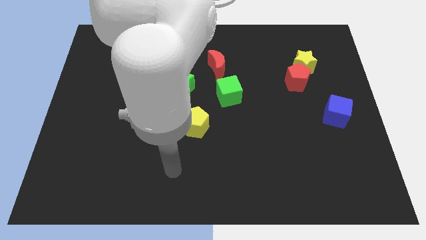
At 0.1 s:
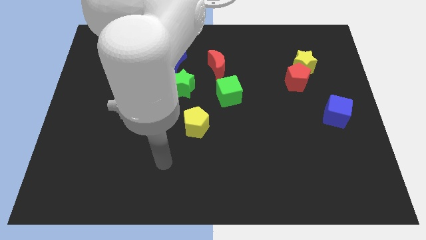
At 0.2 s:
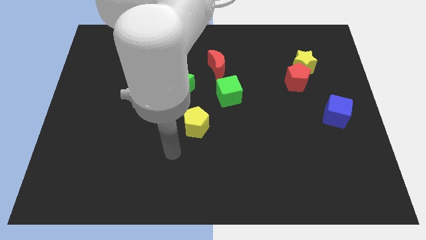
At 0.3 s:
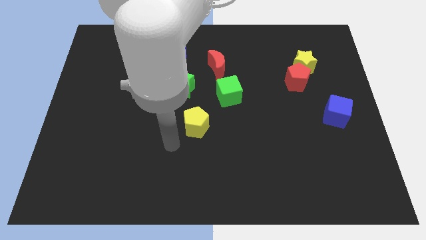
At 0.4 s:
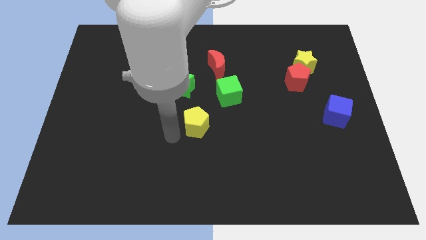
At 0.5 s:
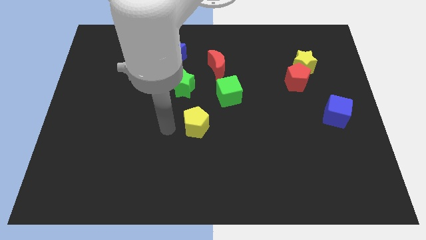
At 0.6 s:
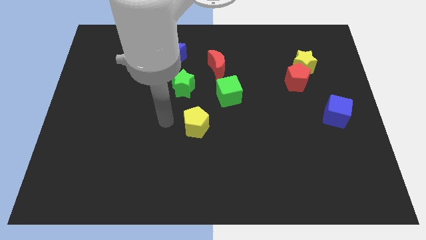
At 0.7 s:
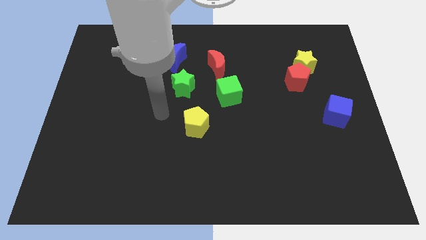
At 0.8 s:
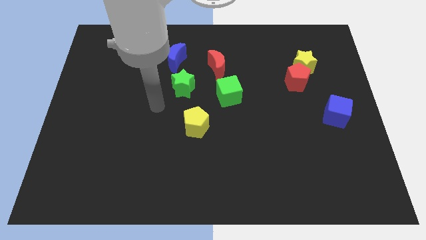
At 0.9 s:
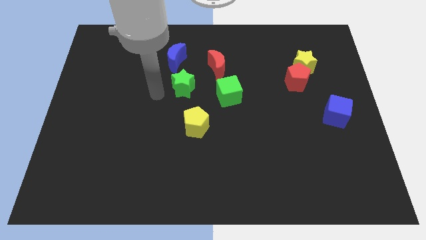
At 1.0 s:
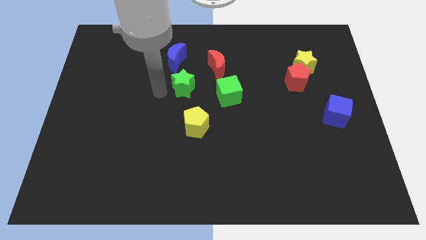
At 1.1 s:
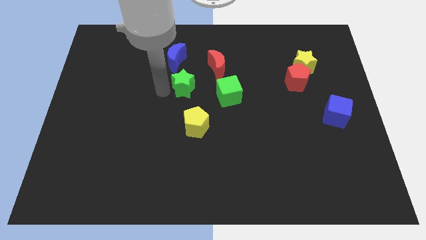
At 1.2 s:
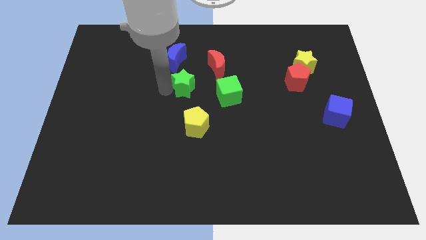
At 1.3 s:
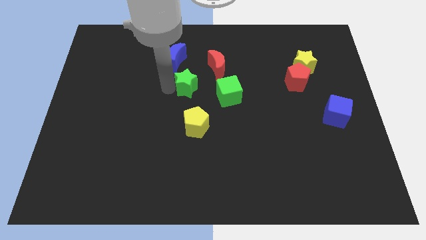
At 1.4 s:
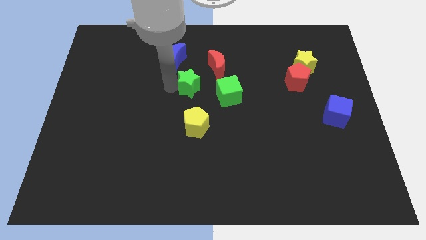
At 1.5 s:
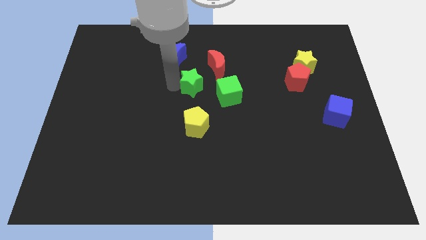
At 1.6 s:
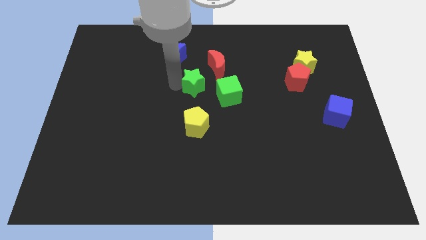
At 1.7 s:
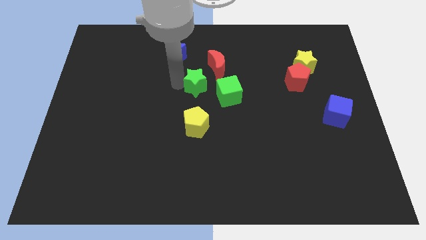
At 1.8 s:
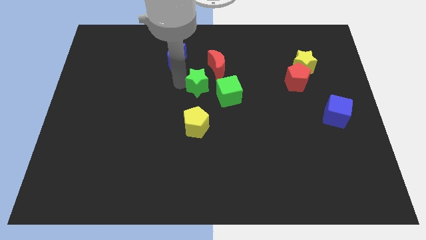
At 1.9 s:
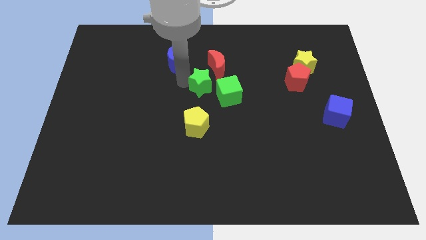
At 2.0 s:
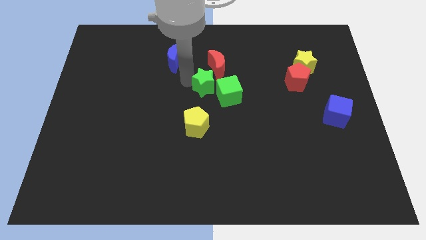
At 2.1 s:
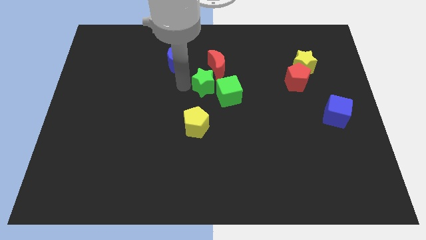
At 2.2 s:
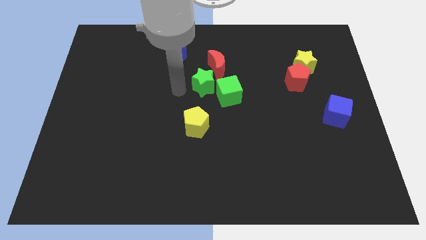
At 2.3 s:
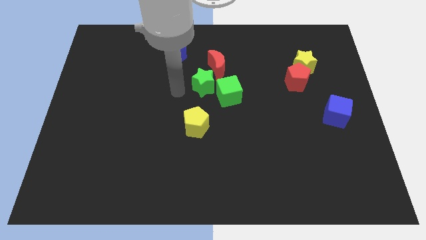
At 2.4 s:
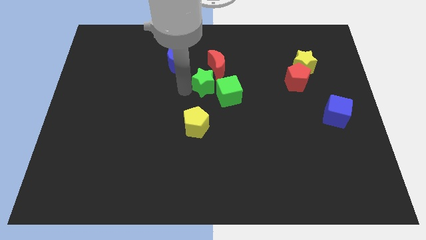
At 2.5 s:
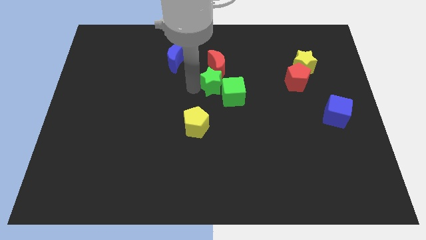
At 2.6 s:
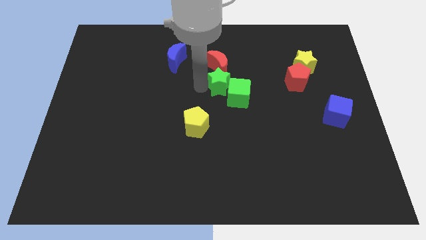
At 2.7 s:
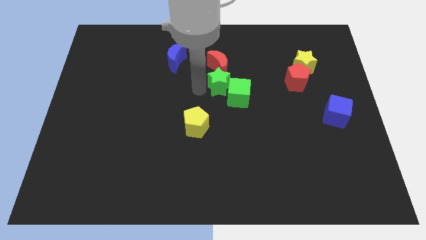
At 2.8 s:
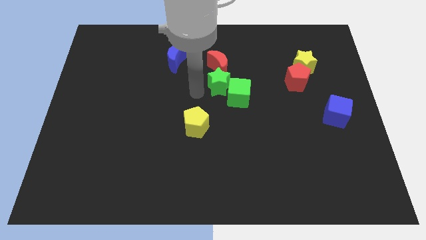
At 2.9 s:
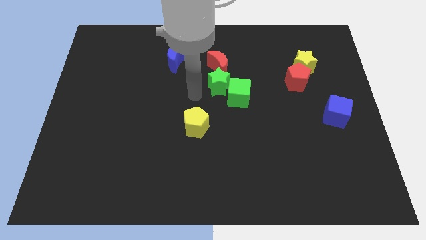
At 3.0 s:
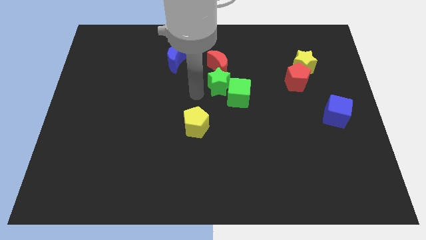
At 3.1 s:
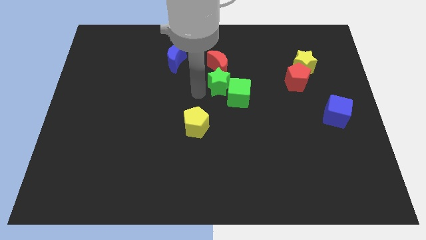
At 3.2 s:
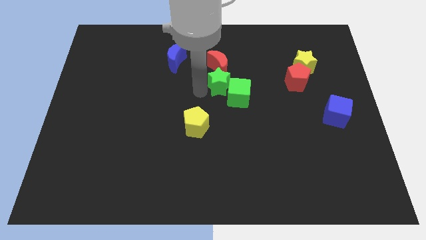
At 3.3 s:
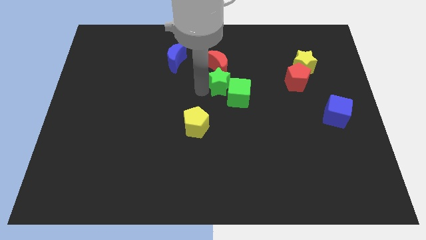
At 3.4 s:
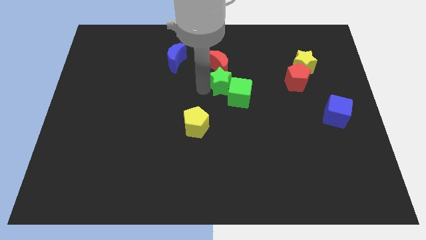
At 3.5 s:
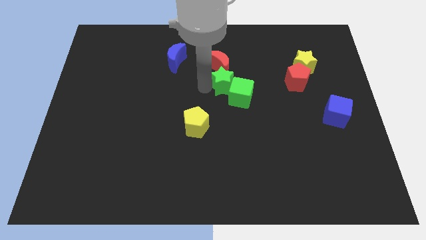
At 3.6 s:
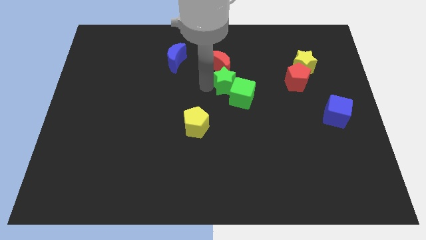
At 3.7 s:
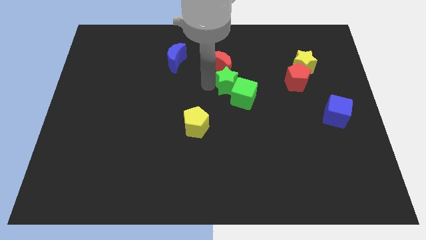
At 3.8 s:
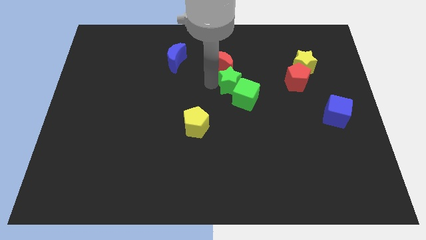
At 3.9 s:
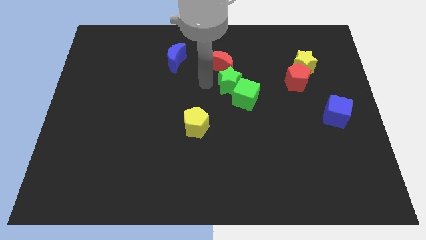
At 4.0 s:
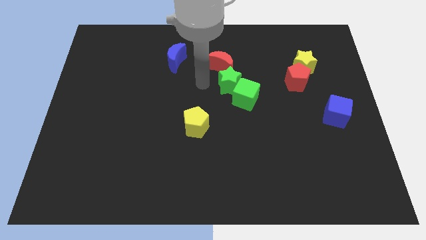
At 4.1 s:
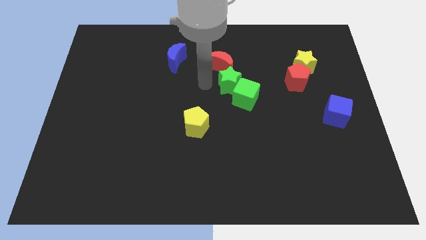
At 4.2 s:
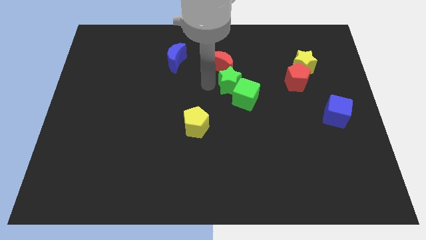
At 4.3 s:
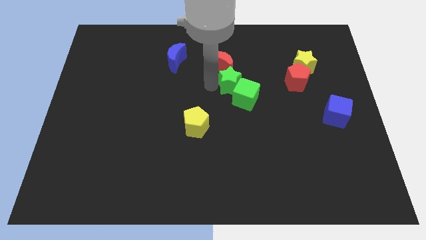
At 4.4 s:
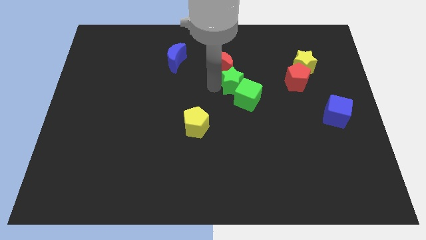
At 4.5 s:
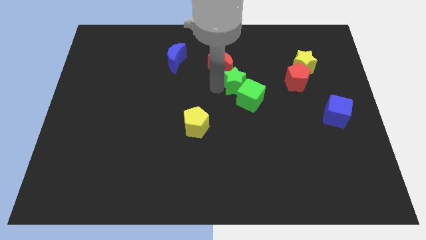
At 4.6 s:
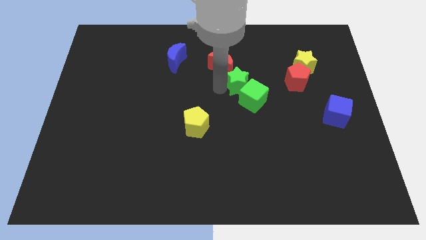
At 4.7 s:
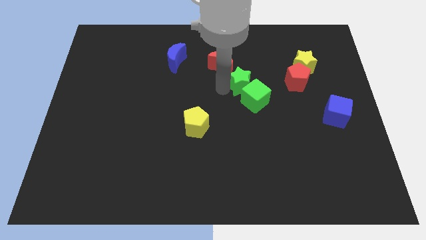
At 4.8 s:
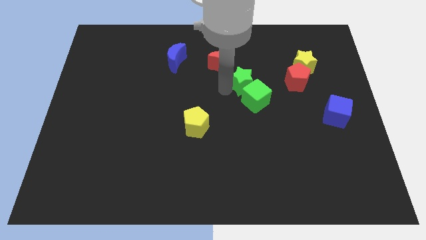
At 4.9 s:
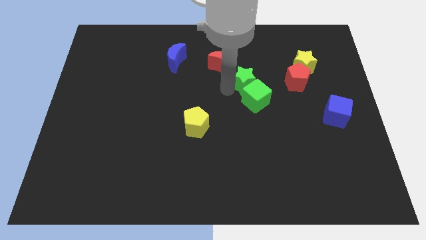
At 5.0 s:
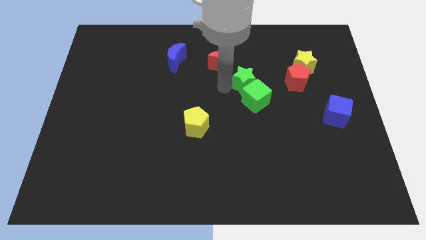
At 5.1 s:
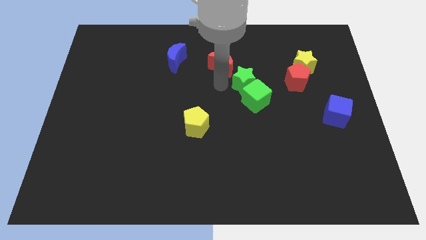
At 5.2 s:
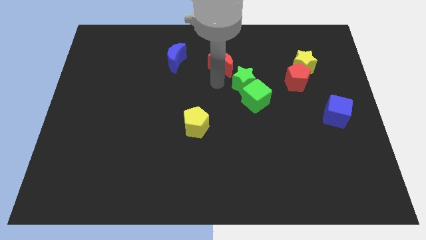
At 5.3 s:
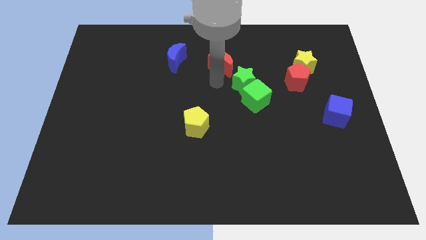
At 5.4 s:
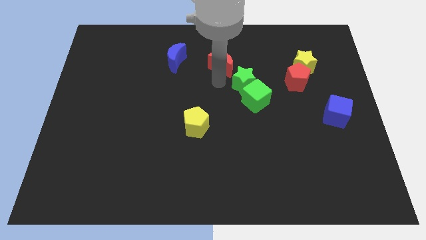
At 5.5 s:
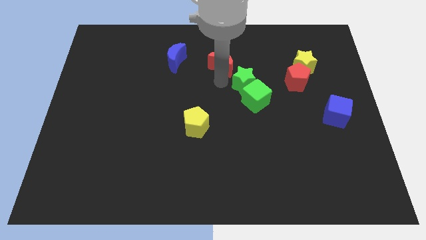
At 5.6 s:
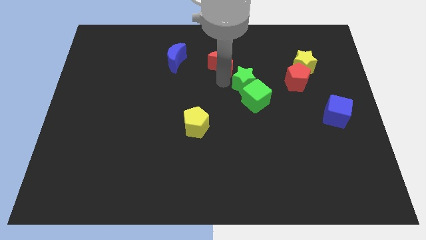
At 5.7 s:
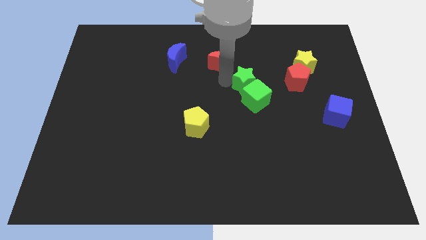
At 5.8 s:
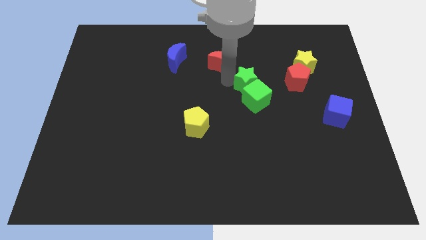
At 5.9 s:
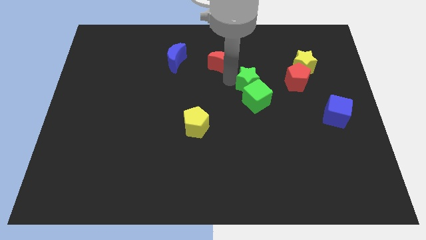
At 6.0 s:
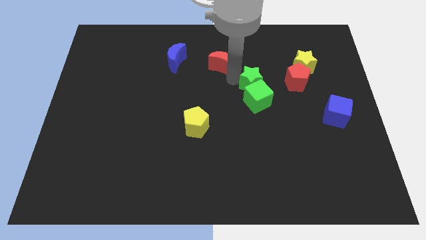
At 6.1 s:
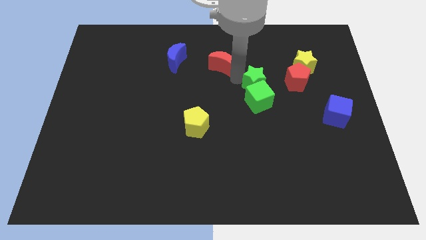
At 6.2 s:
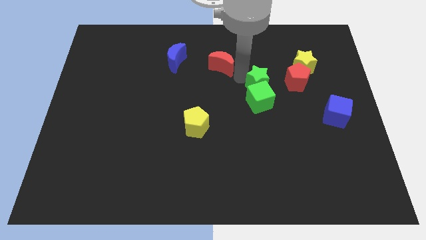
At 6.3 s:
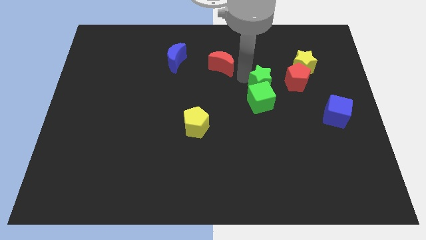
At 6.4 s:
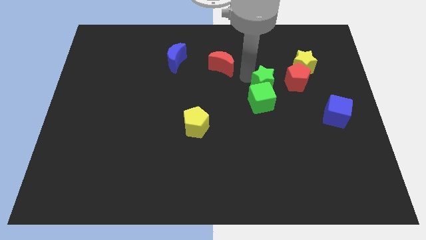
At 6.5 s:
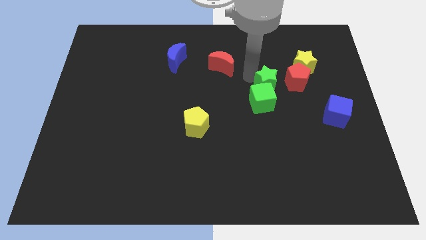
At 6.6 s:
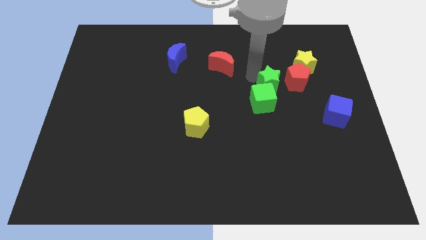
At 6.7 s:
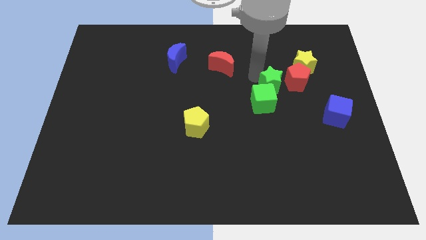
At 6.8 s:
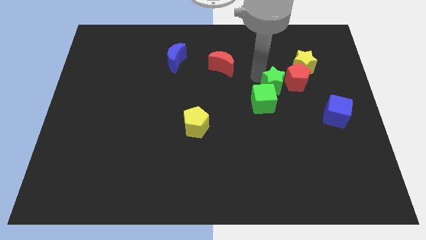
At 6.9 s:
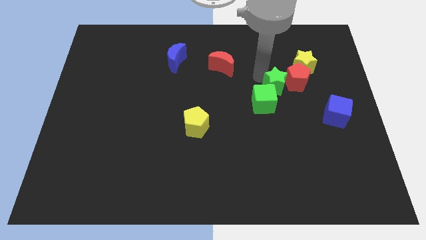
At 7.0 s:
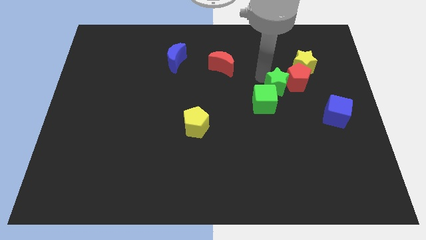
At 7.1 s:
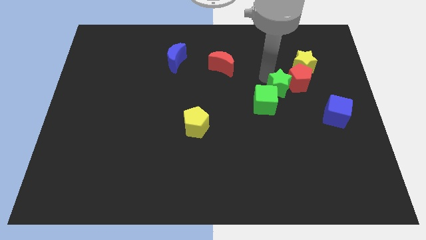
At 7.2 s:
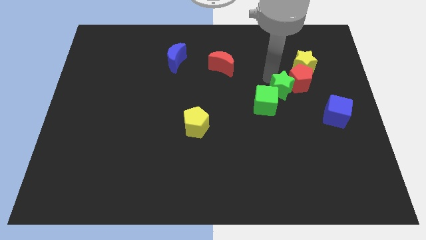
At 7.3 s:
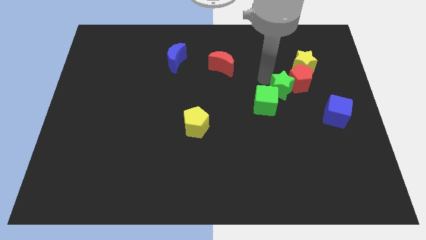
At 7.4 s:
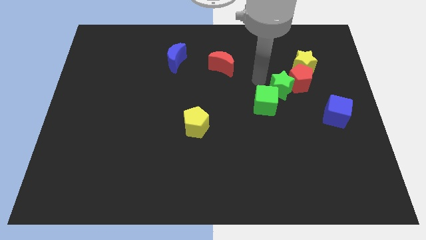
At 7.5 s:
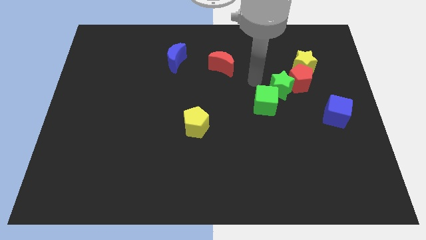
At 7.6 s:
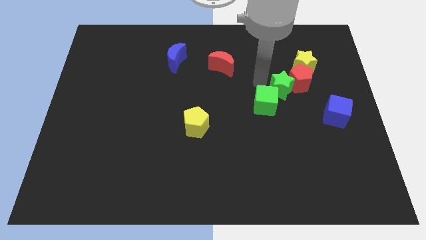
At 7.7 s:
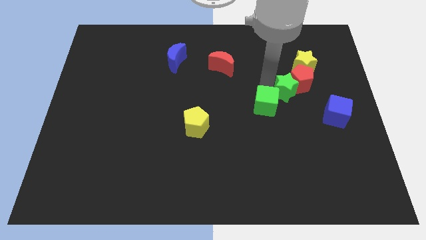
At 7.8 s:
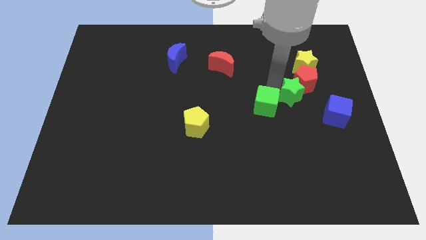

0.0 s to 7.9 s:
push the green star diagonally up and to the left of the blue cube
